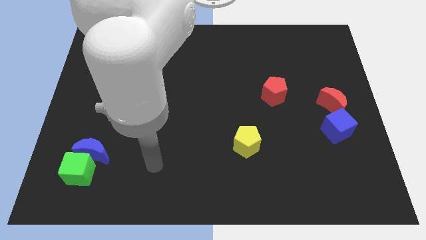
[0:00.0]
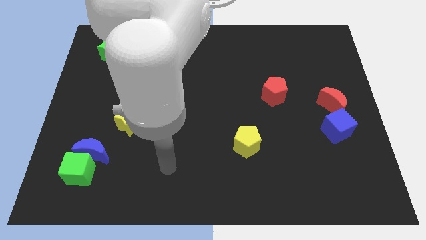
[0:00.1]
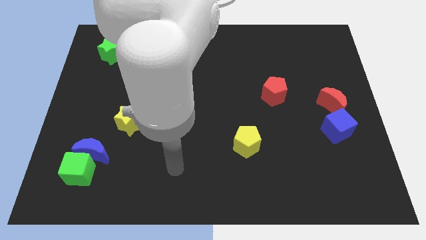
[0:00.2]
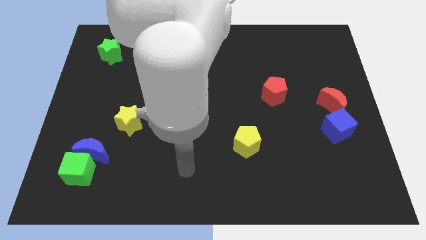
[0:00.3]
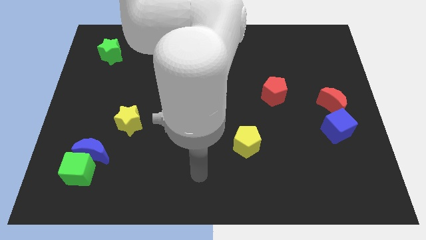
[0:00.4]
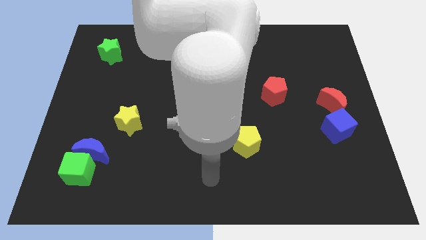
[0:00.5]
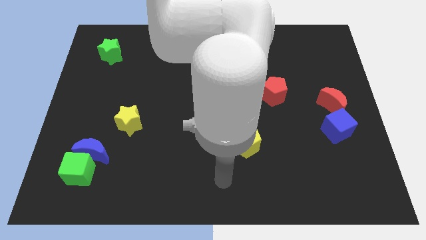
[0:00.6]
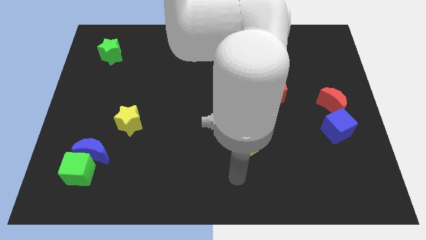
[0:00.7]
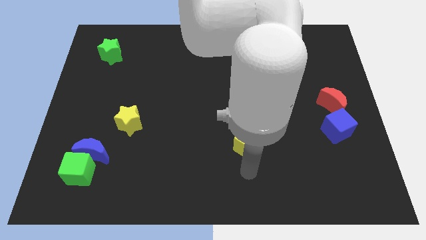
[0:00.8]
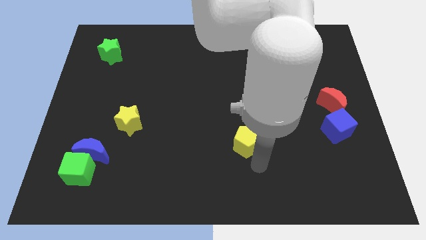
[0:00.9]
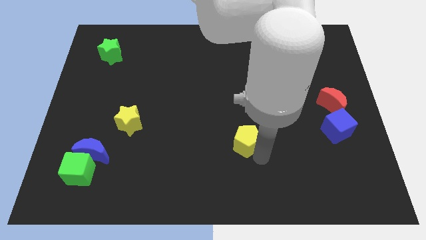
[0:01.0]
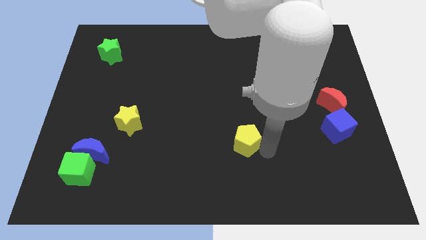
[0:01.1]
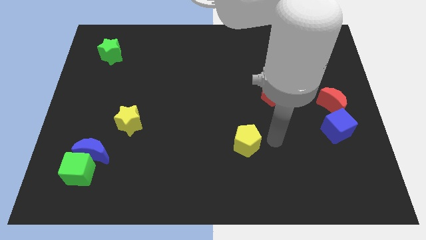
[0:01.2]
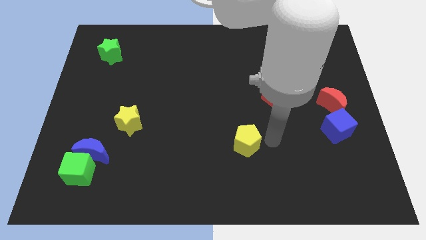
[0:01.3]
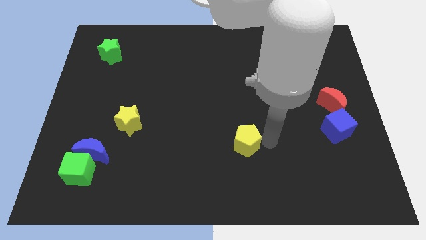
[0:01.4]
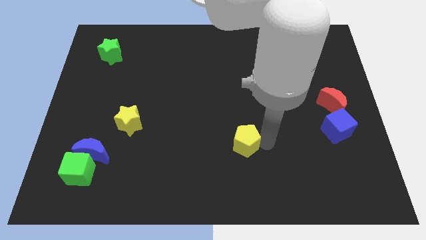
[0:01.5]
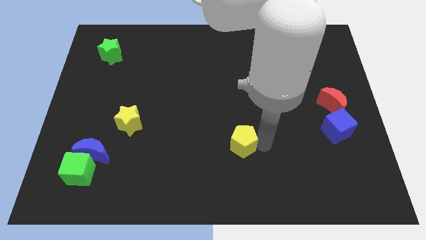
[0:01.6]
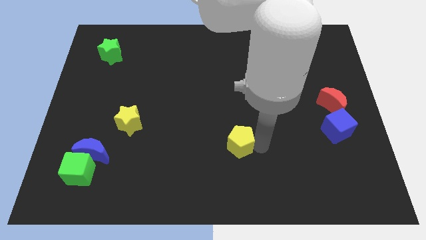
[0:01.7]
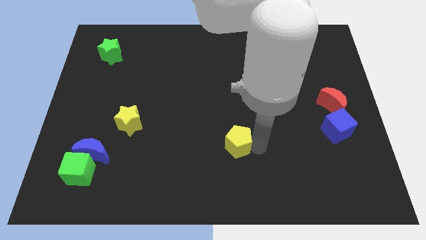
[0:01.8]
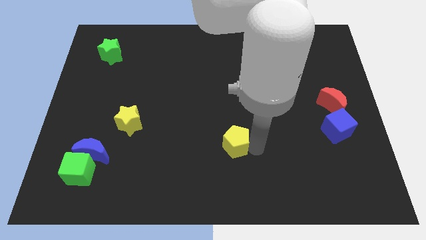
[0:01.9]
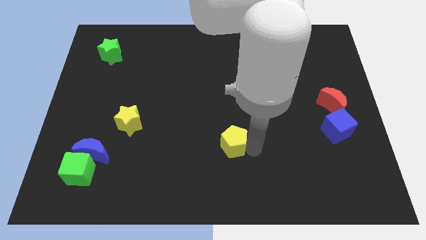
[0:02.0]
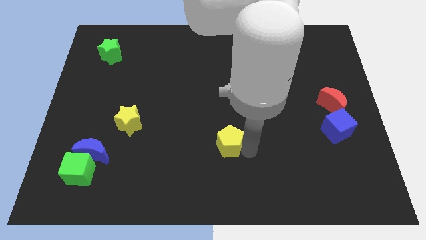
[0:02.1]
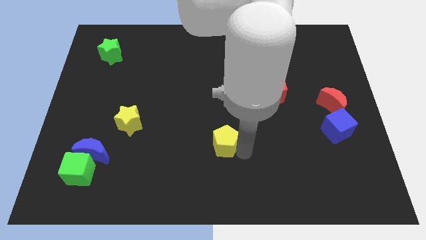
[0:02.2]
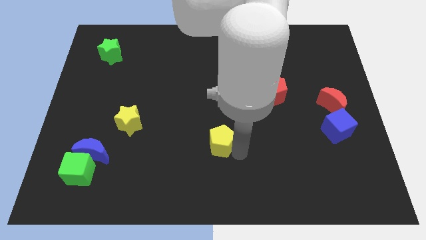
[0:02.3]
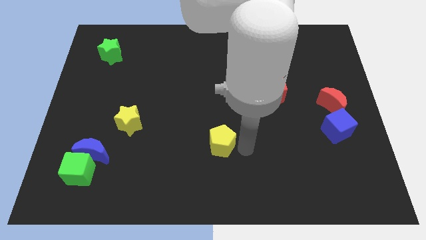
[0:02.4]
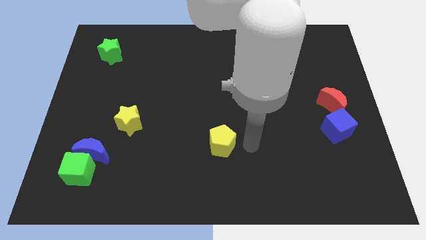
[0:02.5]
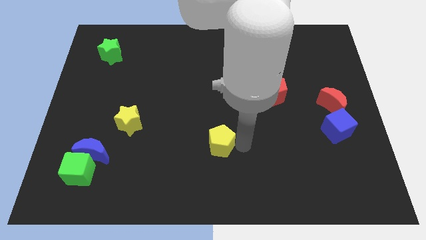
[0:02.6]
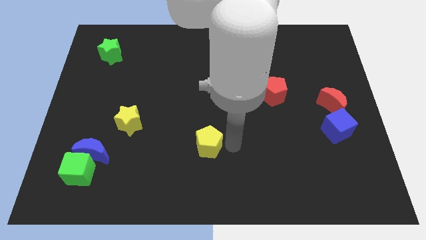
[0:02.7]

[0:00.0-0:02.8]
push the yellow pentagon to the left a little

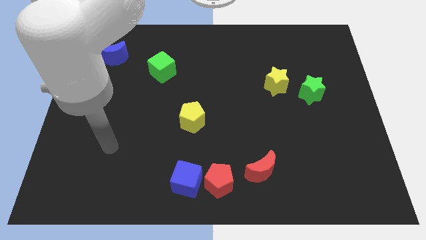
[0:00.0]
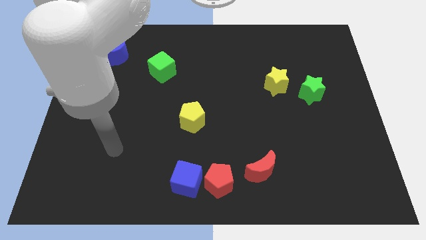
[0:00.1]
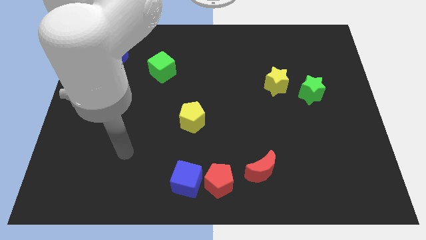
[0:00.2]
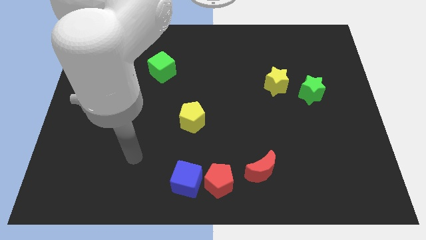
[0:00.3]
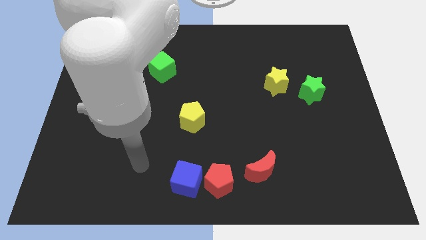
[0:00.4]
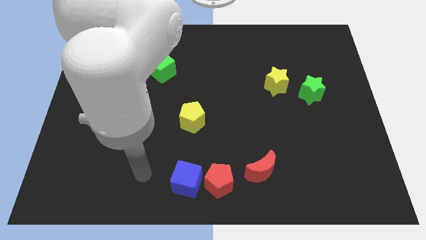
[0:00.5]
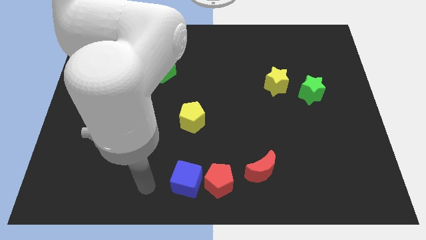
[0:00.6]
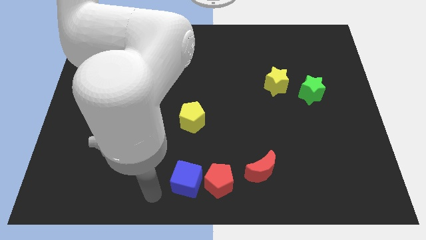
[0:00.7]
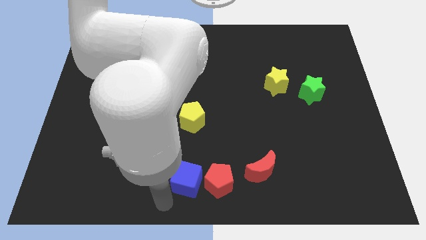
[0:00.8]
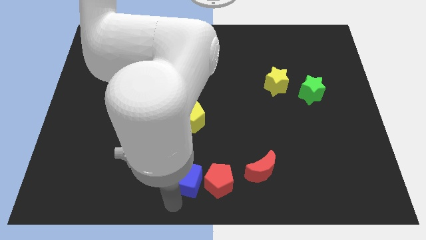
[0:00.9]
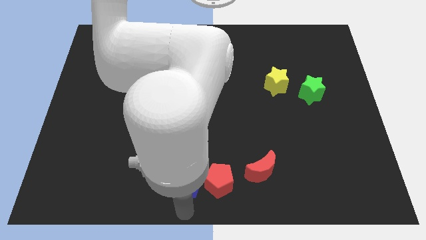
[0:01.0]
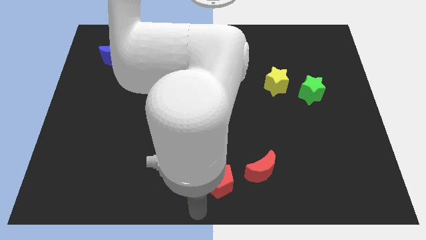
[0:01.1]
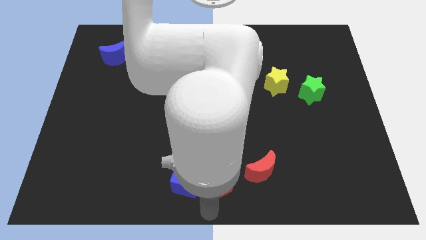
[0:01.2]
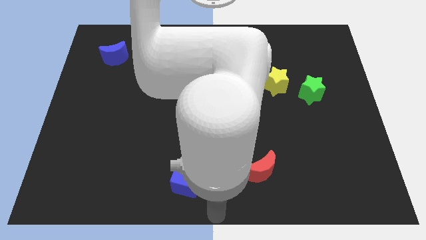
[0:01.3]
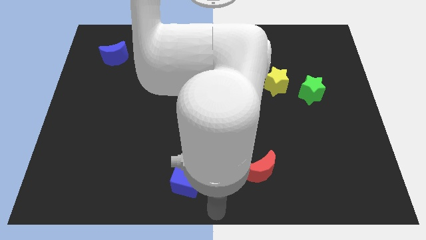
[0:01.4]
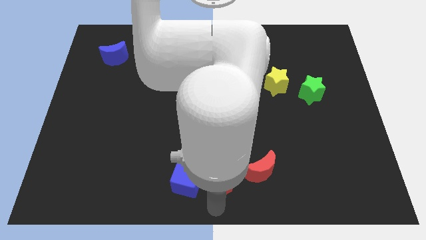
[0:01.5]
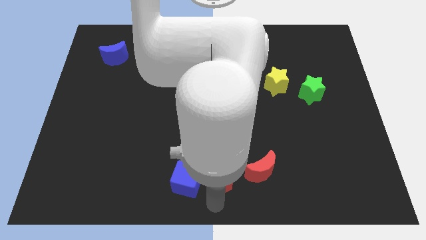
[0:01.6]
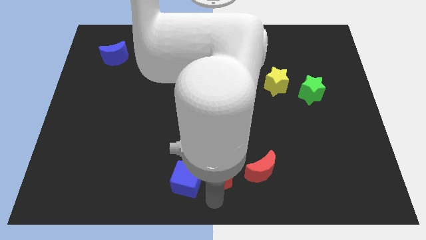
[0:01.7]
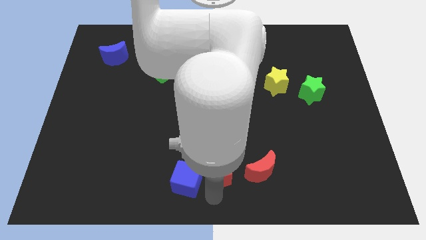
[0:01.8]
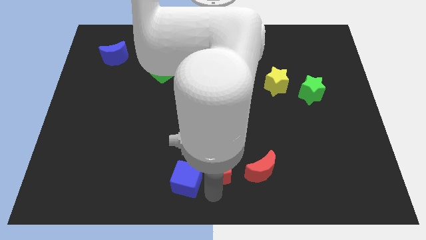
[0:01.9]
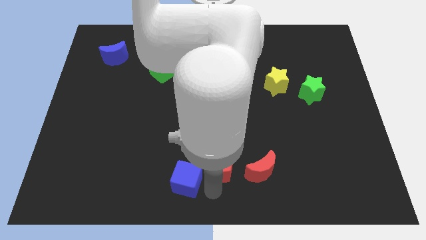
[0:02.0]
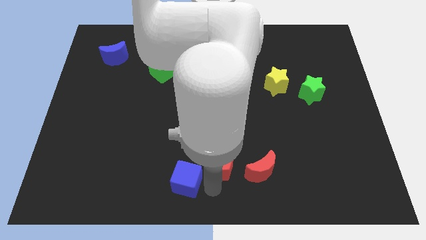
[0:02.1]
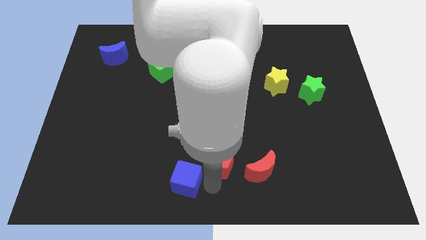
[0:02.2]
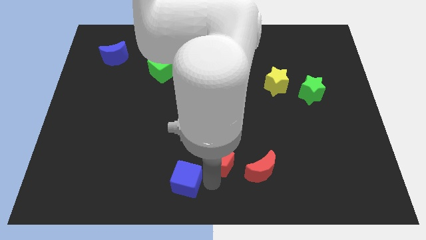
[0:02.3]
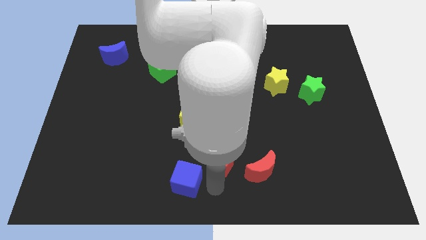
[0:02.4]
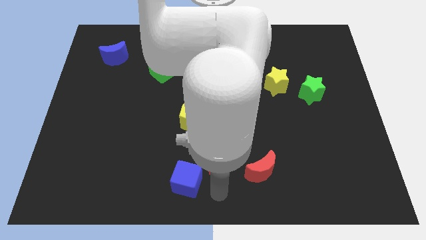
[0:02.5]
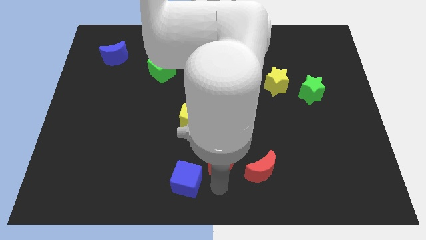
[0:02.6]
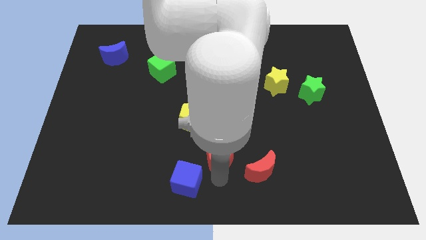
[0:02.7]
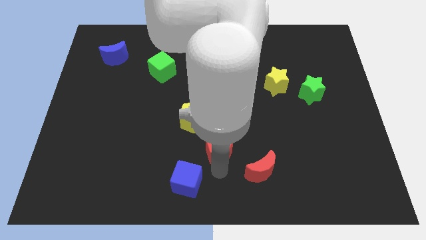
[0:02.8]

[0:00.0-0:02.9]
slide the red pentagon somewhat up

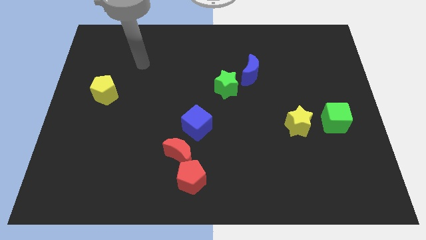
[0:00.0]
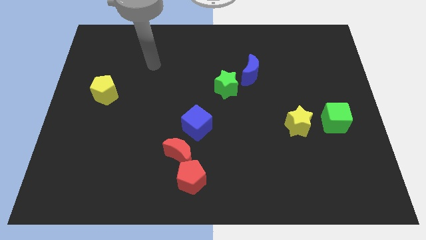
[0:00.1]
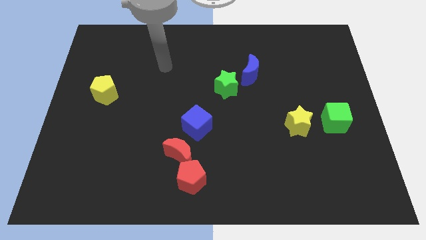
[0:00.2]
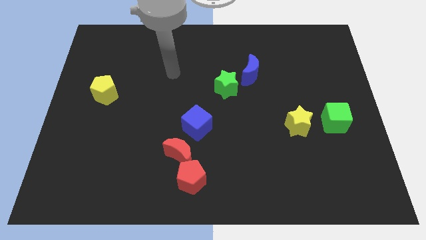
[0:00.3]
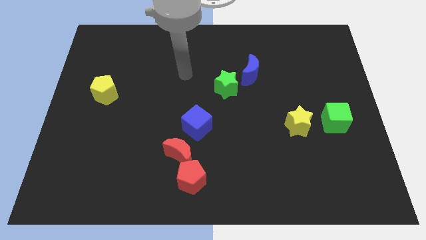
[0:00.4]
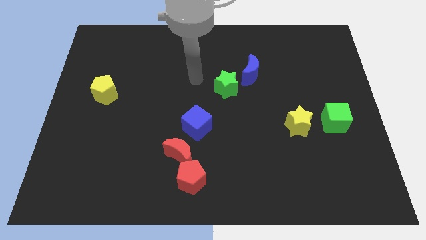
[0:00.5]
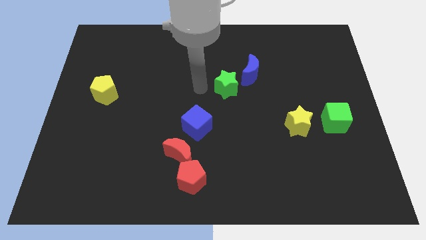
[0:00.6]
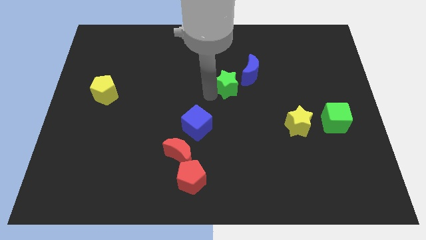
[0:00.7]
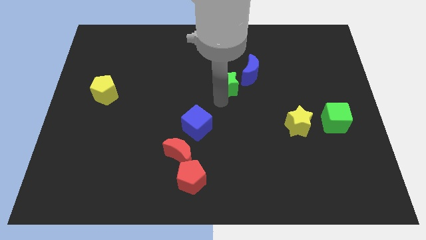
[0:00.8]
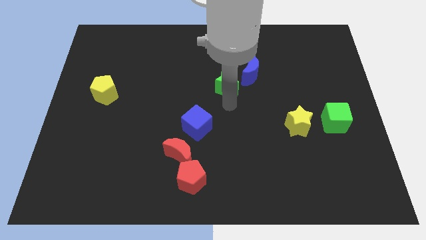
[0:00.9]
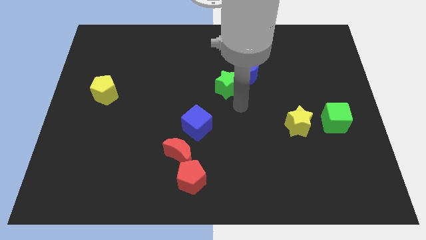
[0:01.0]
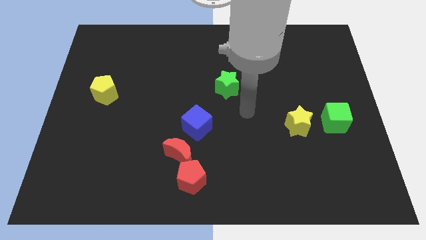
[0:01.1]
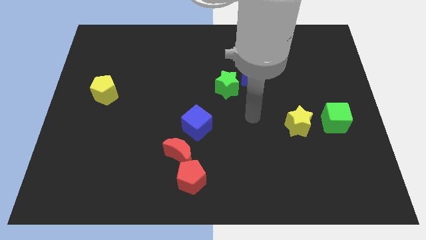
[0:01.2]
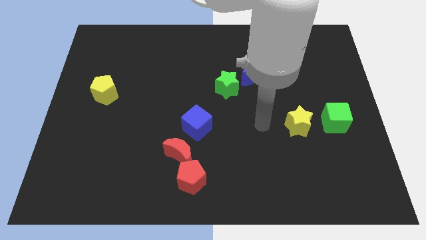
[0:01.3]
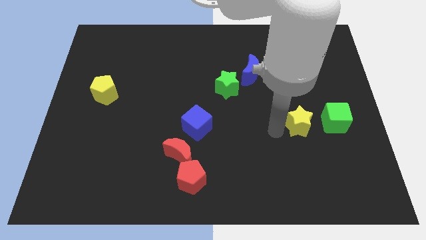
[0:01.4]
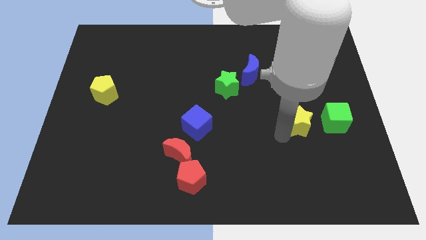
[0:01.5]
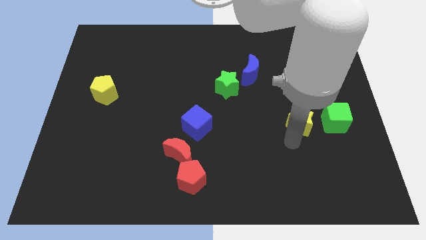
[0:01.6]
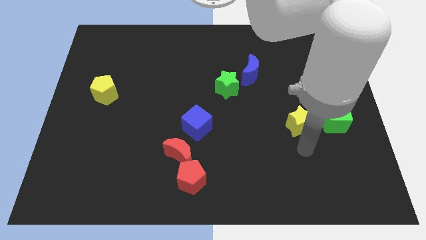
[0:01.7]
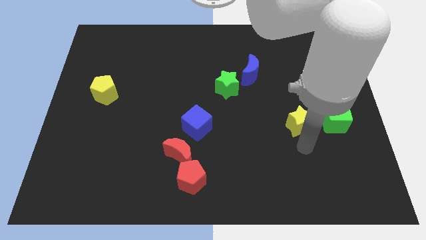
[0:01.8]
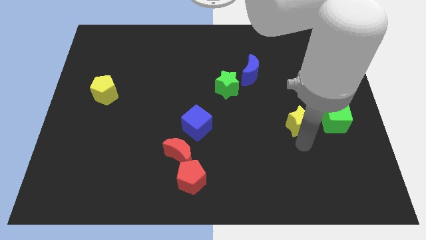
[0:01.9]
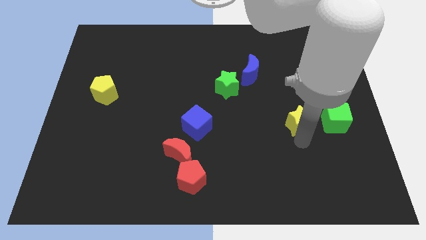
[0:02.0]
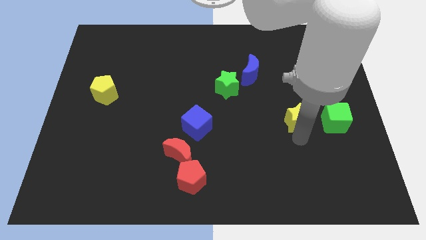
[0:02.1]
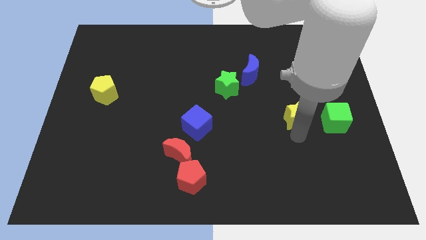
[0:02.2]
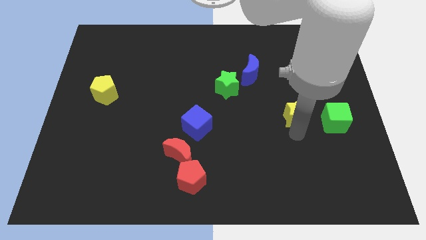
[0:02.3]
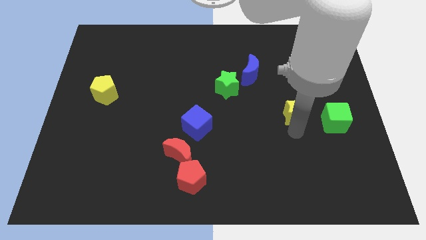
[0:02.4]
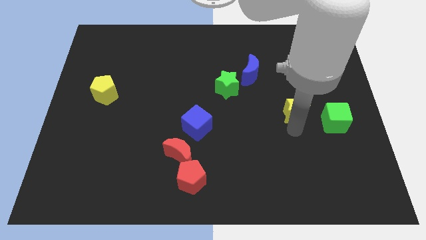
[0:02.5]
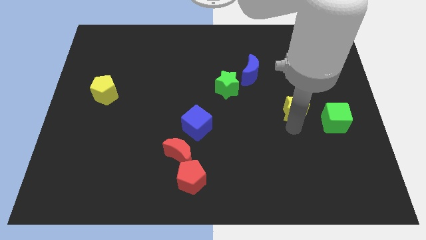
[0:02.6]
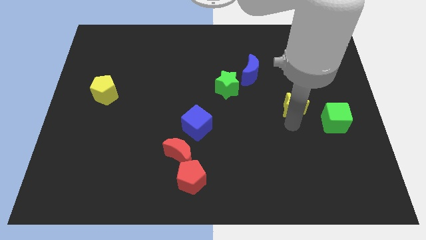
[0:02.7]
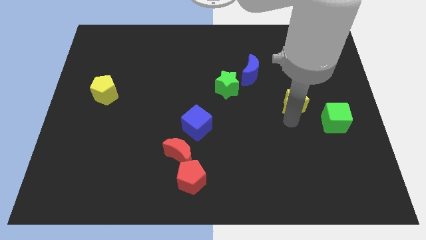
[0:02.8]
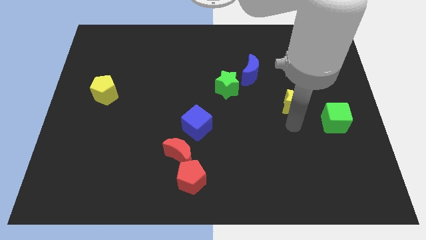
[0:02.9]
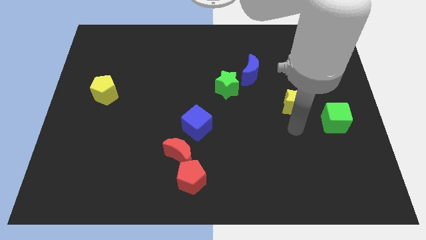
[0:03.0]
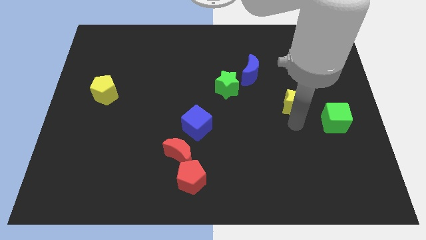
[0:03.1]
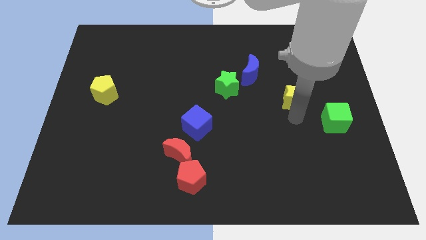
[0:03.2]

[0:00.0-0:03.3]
move the yellow star a little bit up
